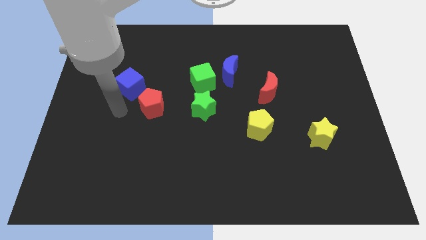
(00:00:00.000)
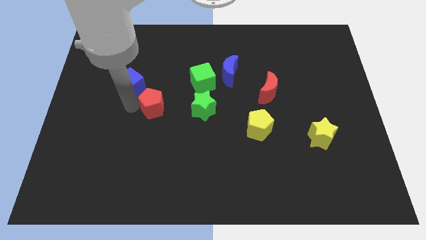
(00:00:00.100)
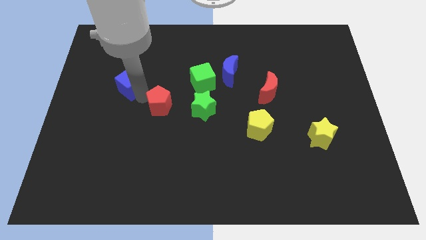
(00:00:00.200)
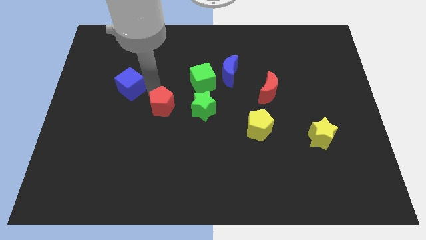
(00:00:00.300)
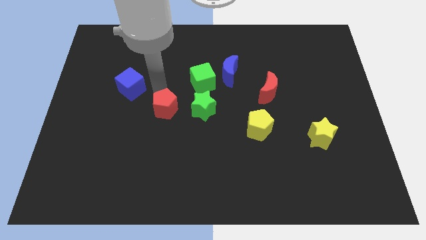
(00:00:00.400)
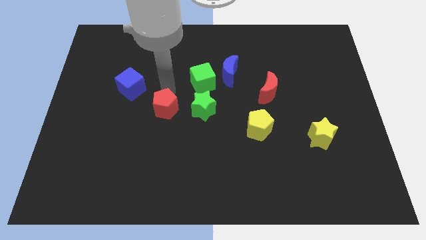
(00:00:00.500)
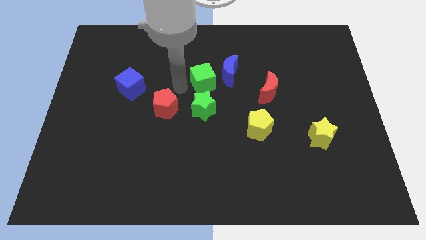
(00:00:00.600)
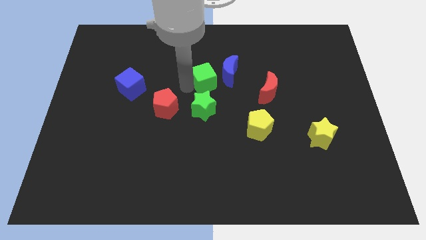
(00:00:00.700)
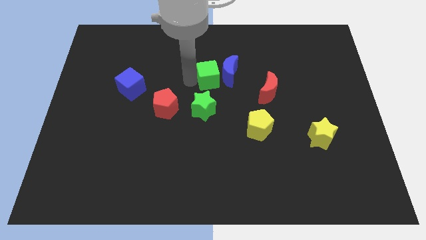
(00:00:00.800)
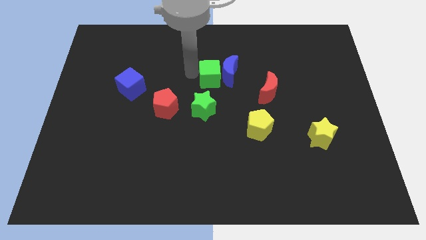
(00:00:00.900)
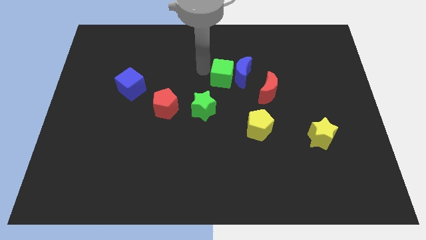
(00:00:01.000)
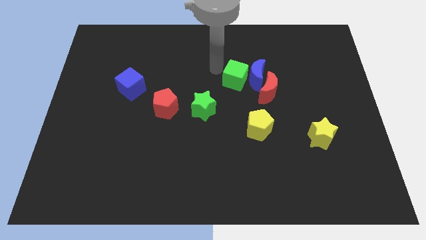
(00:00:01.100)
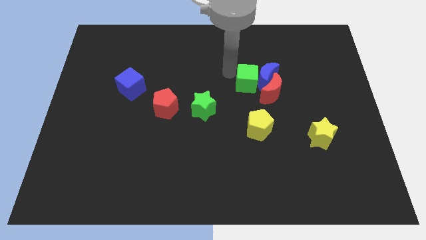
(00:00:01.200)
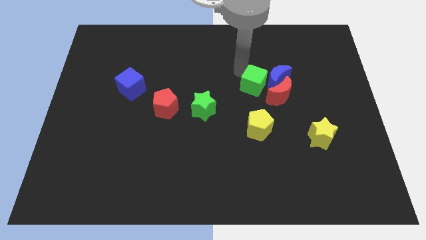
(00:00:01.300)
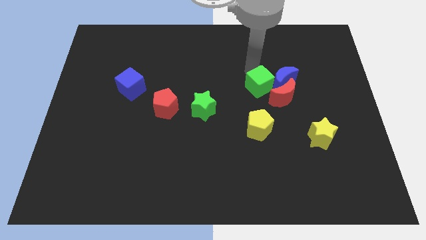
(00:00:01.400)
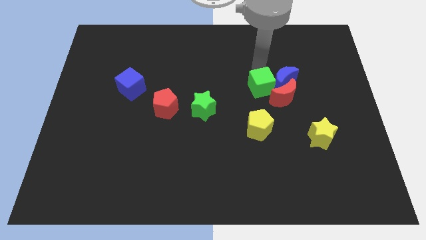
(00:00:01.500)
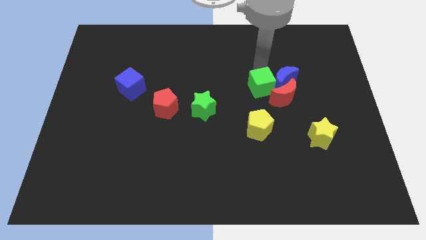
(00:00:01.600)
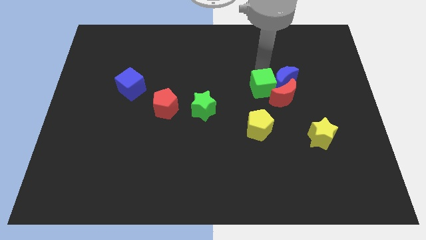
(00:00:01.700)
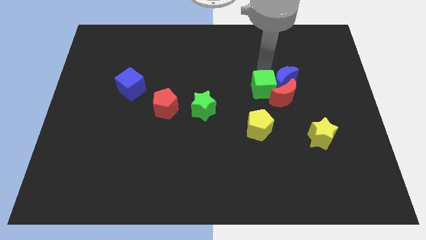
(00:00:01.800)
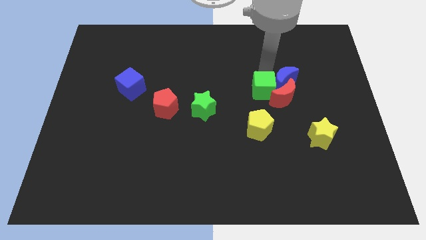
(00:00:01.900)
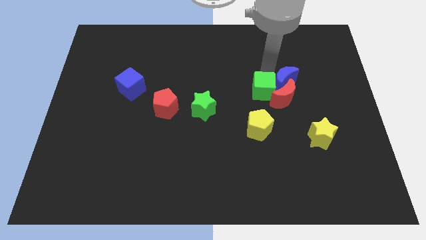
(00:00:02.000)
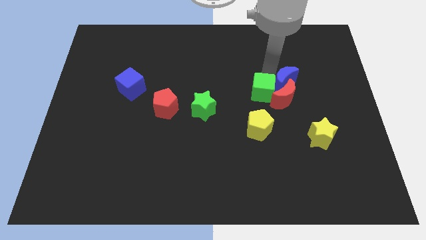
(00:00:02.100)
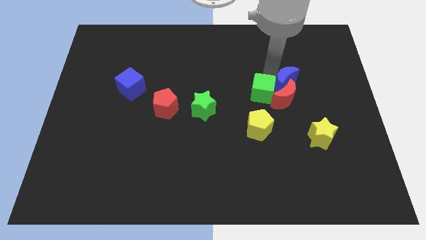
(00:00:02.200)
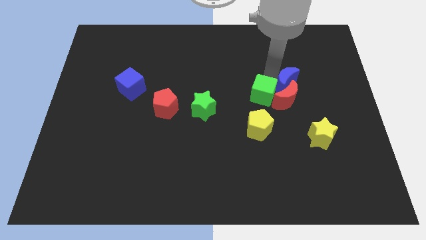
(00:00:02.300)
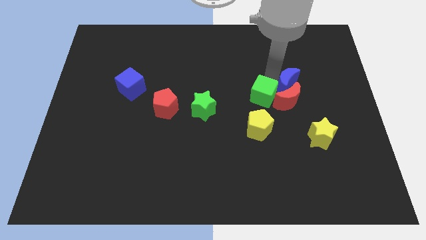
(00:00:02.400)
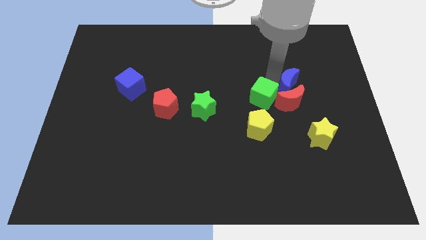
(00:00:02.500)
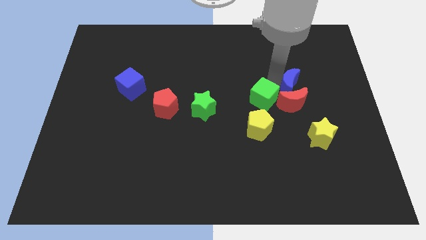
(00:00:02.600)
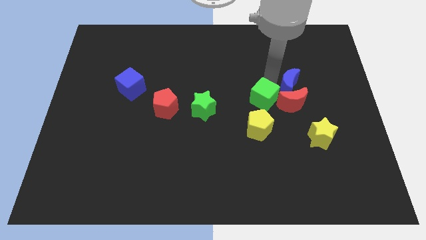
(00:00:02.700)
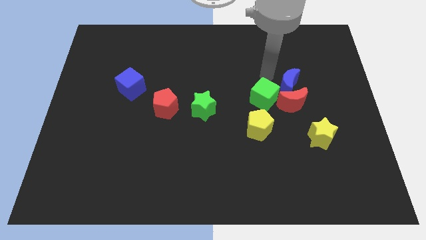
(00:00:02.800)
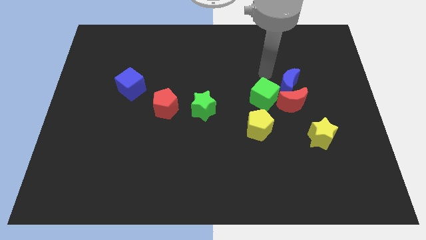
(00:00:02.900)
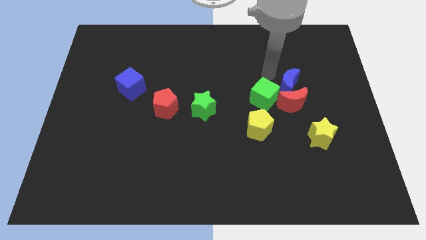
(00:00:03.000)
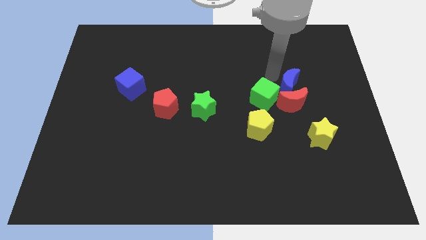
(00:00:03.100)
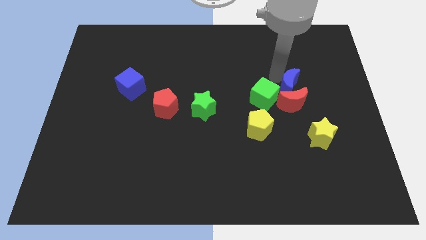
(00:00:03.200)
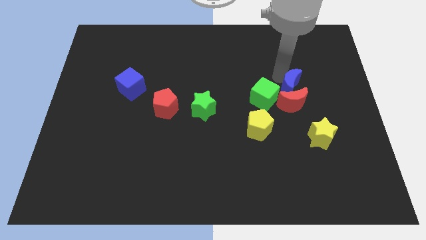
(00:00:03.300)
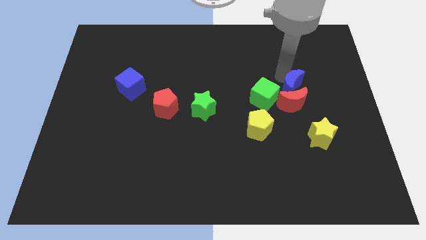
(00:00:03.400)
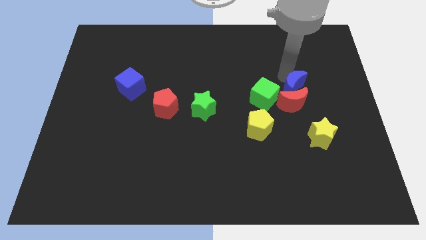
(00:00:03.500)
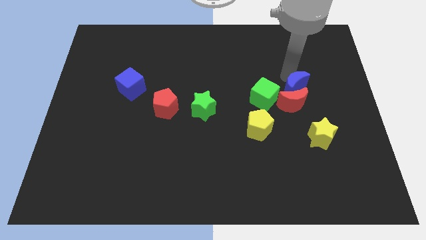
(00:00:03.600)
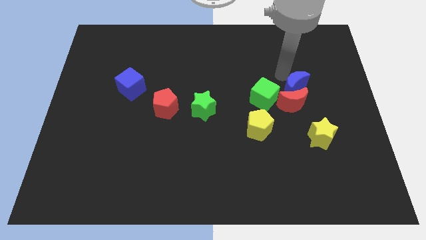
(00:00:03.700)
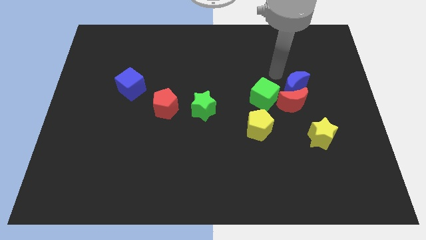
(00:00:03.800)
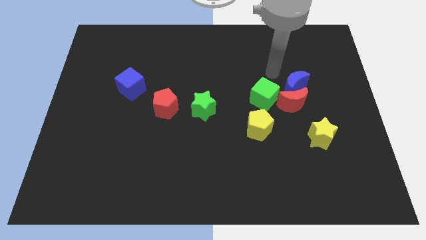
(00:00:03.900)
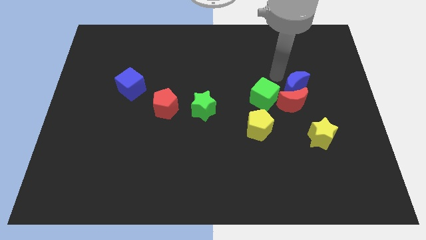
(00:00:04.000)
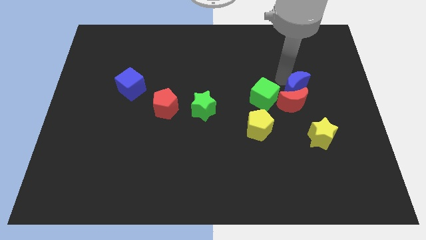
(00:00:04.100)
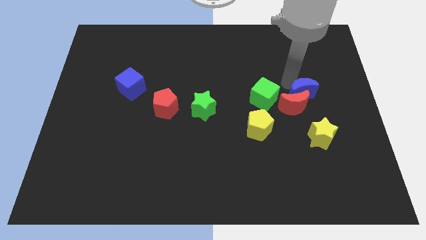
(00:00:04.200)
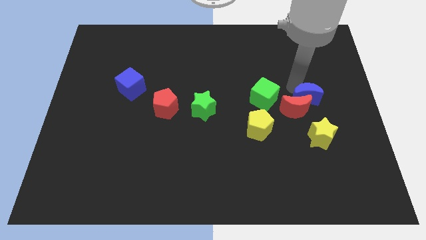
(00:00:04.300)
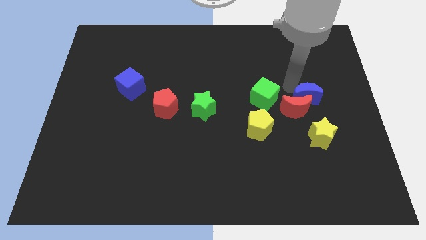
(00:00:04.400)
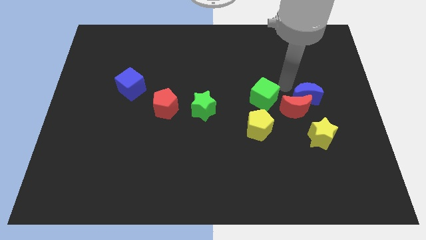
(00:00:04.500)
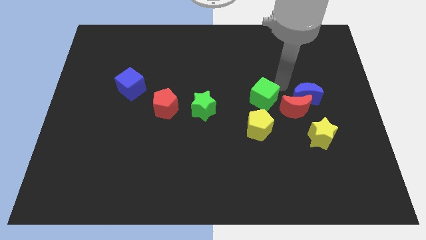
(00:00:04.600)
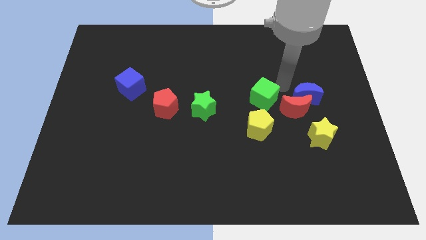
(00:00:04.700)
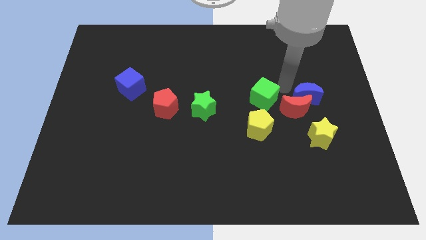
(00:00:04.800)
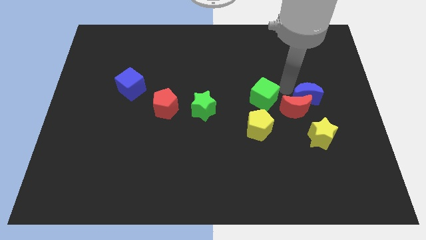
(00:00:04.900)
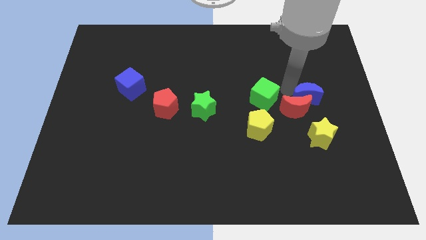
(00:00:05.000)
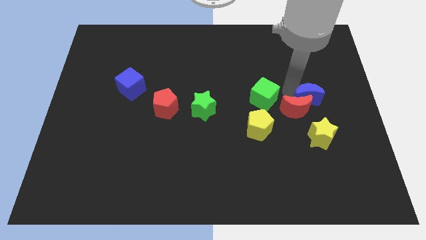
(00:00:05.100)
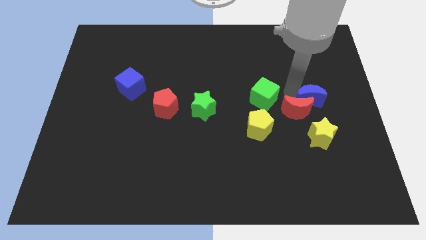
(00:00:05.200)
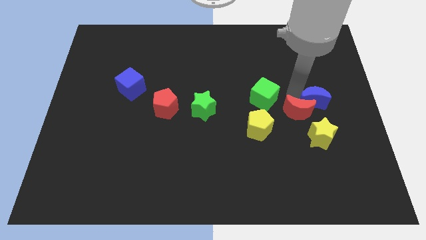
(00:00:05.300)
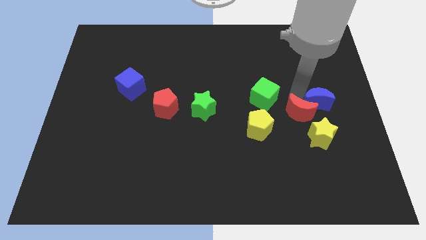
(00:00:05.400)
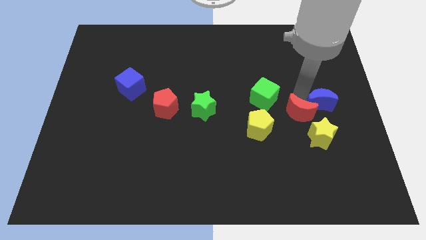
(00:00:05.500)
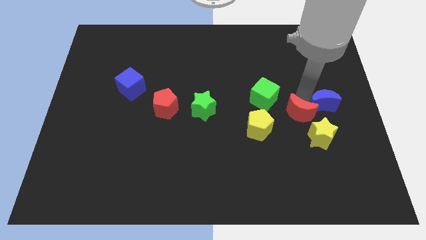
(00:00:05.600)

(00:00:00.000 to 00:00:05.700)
push the blue moon to the top right side of the yellow star

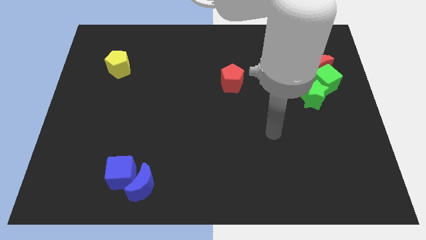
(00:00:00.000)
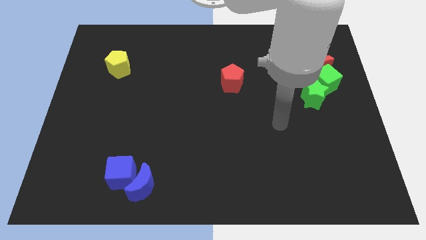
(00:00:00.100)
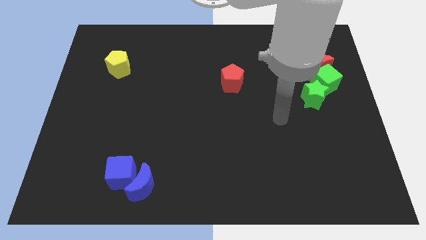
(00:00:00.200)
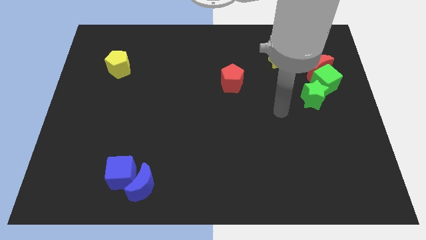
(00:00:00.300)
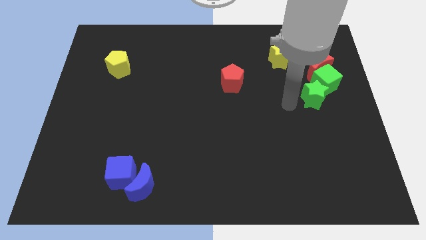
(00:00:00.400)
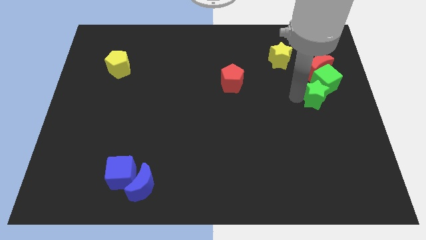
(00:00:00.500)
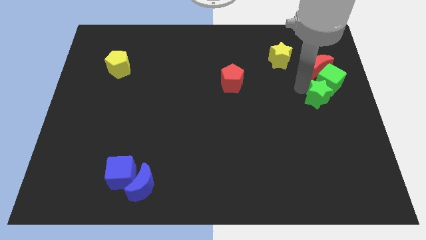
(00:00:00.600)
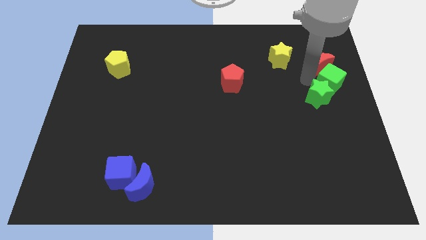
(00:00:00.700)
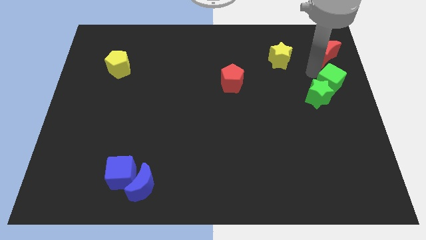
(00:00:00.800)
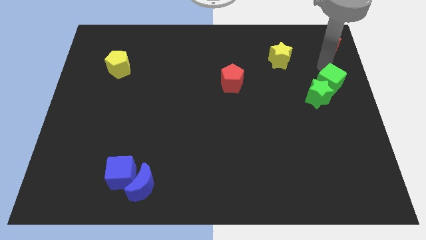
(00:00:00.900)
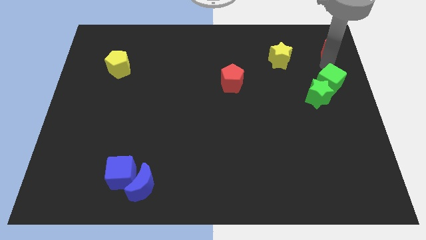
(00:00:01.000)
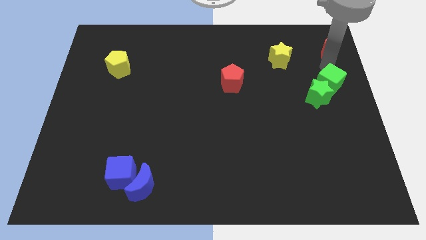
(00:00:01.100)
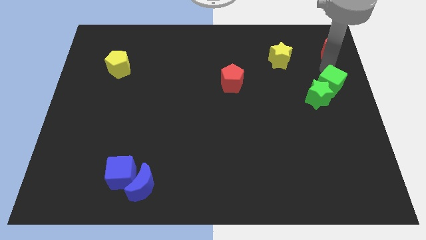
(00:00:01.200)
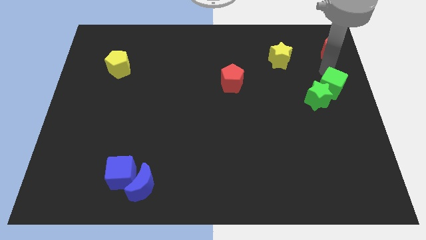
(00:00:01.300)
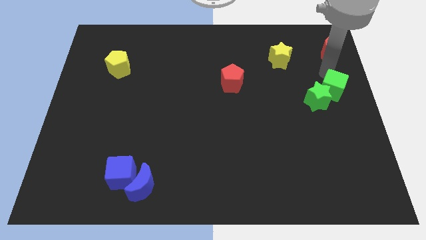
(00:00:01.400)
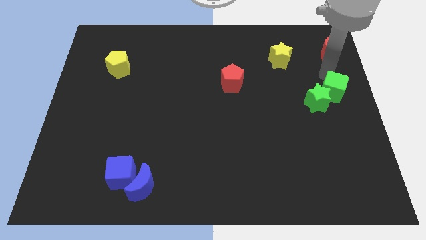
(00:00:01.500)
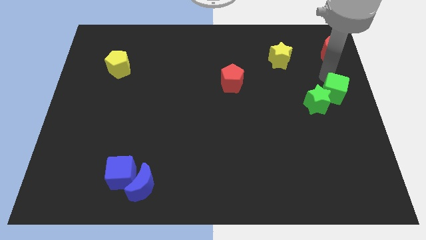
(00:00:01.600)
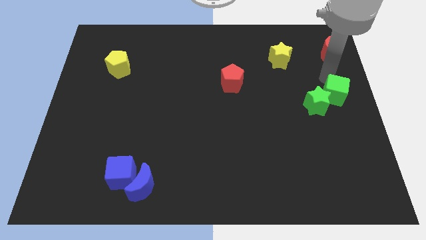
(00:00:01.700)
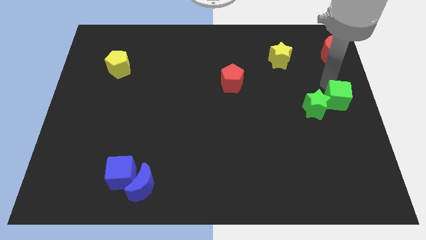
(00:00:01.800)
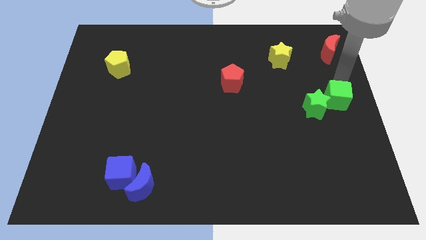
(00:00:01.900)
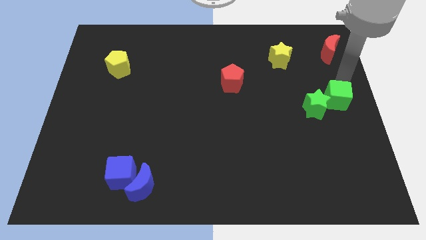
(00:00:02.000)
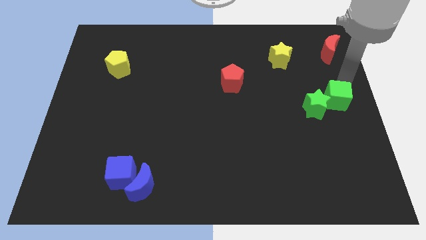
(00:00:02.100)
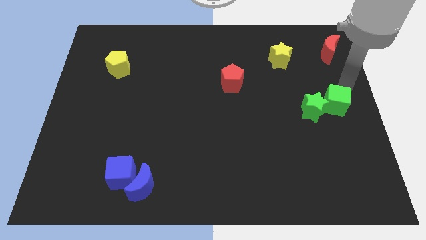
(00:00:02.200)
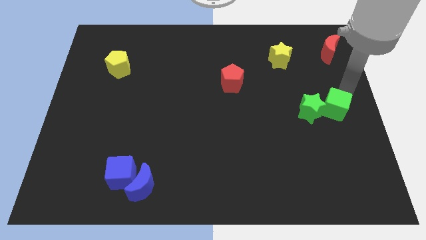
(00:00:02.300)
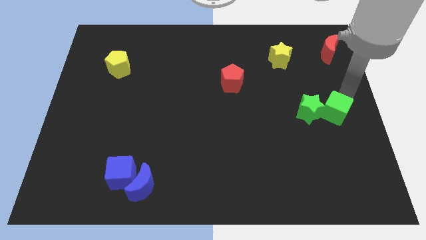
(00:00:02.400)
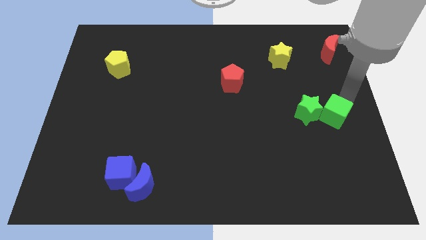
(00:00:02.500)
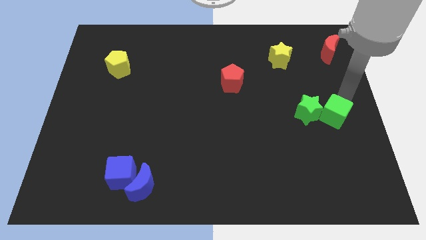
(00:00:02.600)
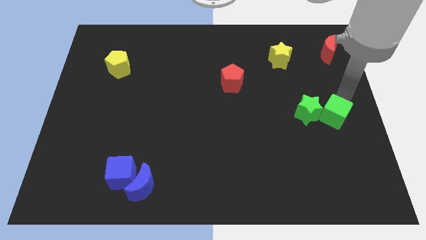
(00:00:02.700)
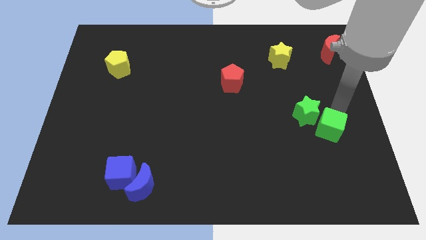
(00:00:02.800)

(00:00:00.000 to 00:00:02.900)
slide the green cube to the bottom side of the green star
